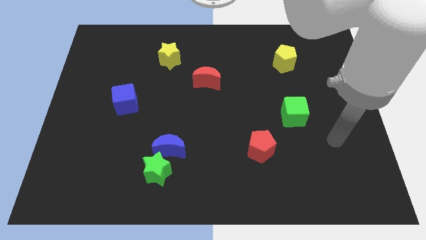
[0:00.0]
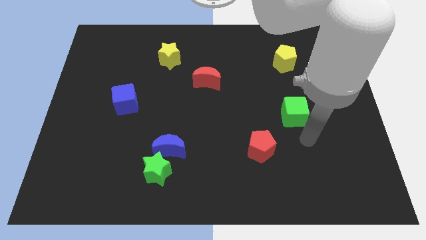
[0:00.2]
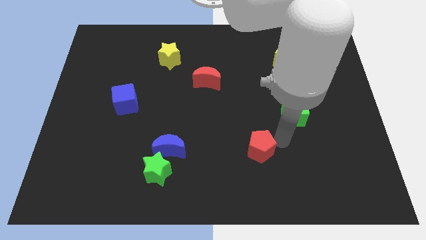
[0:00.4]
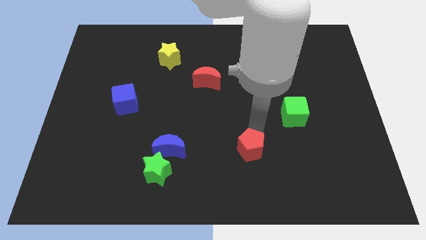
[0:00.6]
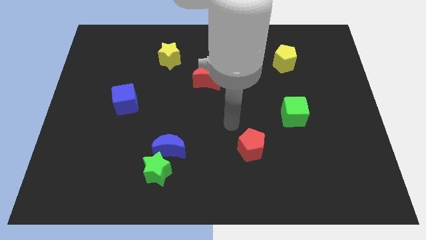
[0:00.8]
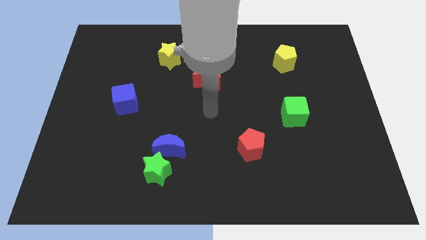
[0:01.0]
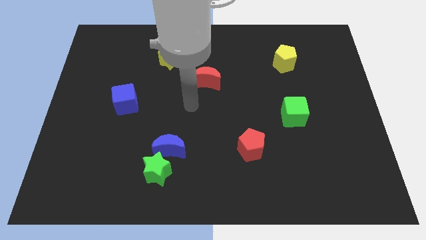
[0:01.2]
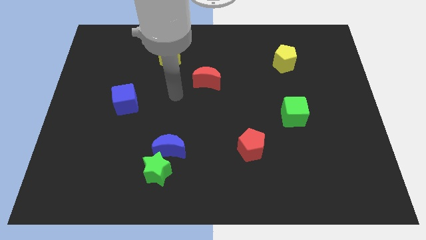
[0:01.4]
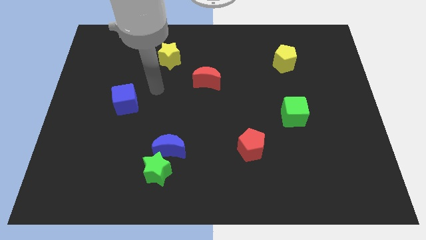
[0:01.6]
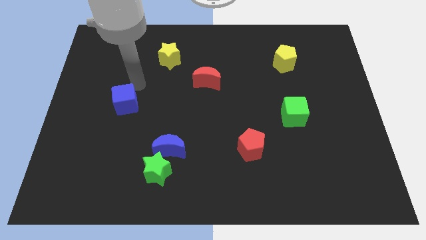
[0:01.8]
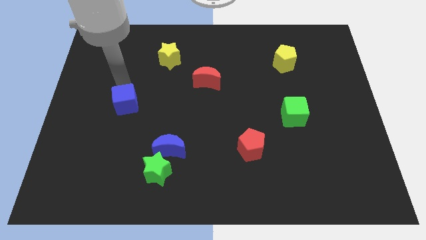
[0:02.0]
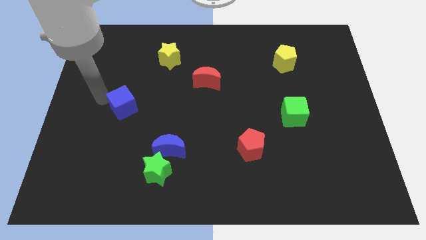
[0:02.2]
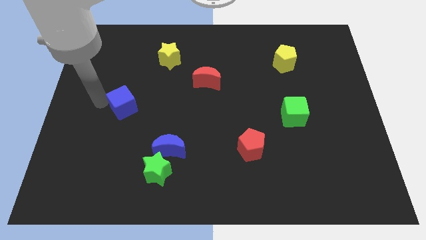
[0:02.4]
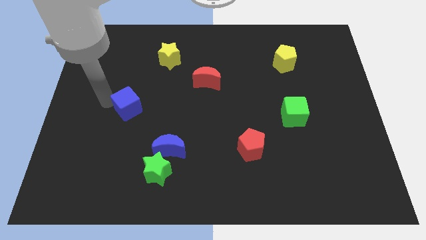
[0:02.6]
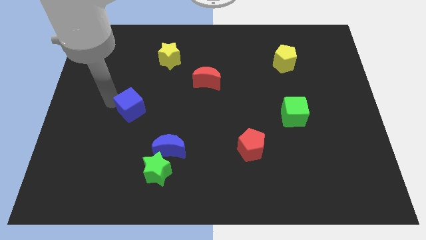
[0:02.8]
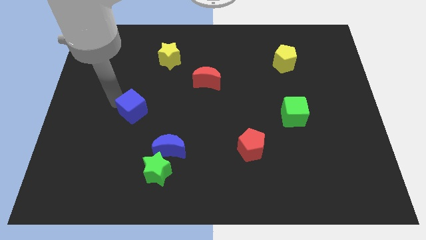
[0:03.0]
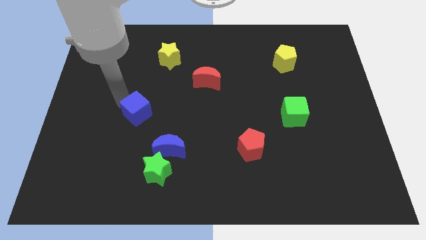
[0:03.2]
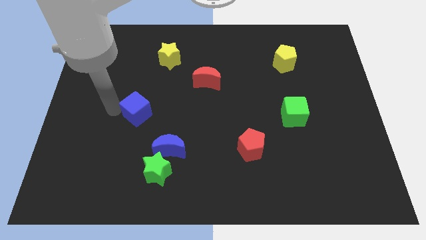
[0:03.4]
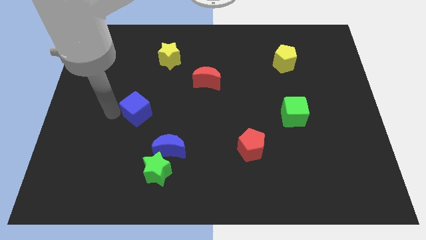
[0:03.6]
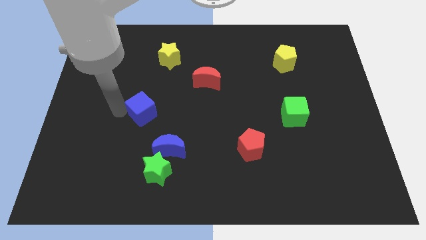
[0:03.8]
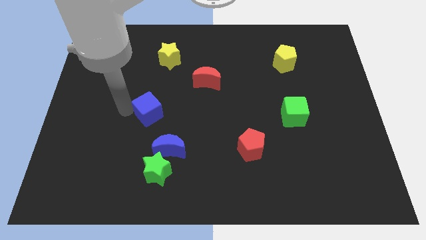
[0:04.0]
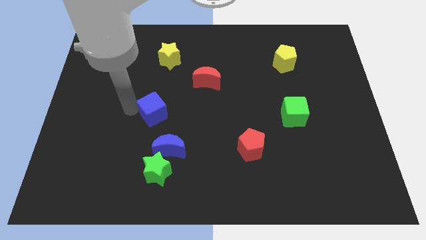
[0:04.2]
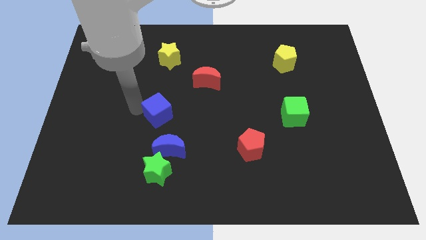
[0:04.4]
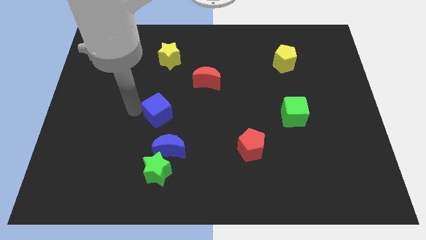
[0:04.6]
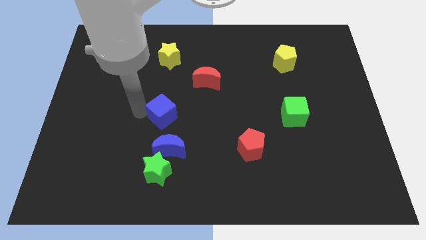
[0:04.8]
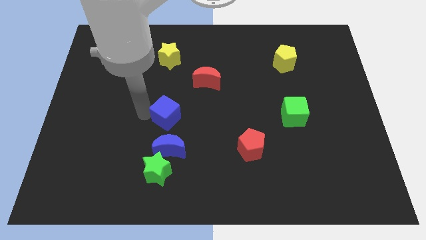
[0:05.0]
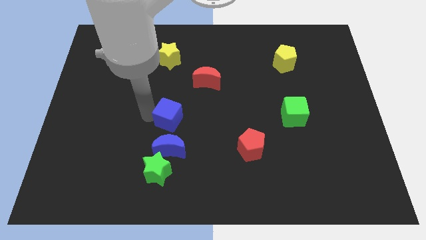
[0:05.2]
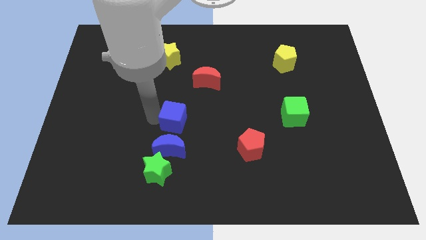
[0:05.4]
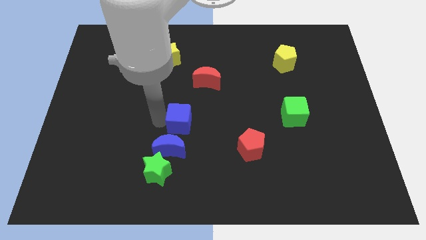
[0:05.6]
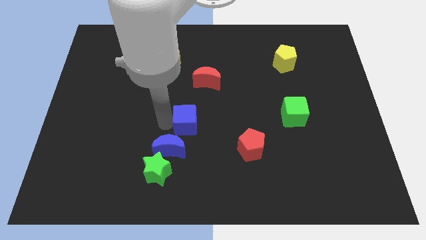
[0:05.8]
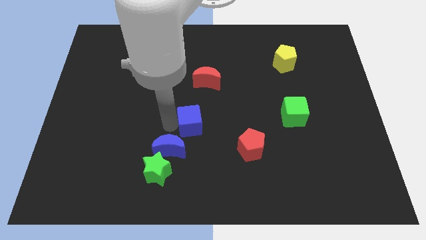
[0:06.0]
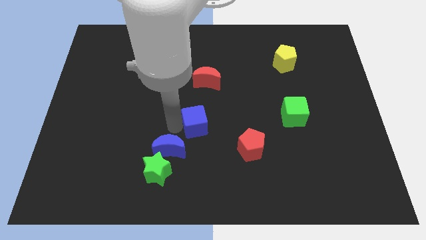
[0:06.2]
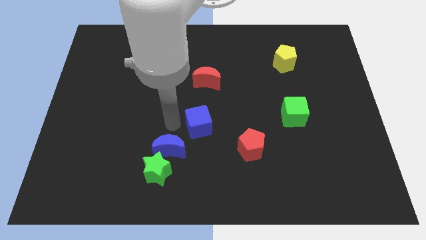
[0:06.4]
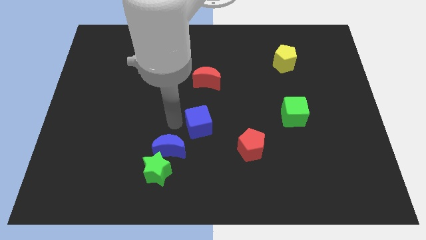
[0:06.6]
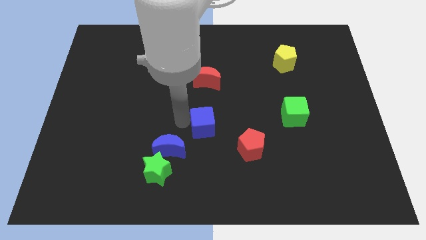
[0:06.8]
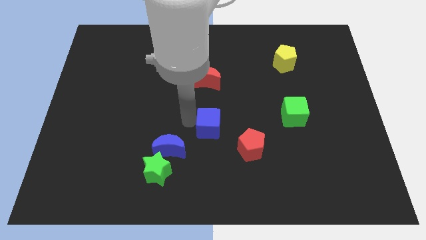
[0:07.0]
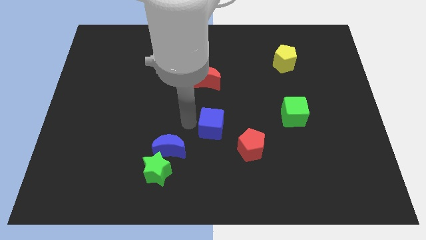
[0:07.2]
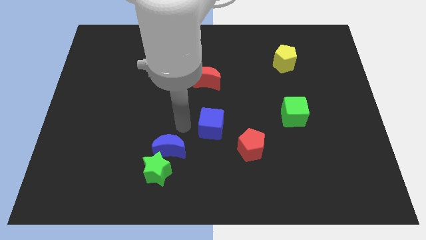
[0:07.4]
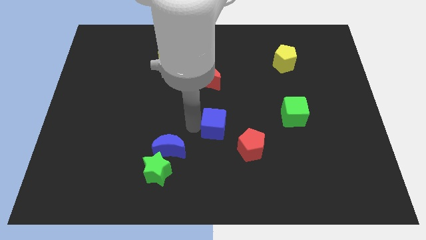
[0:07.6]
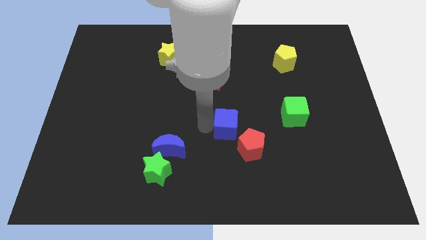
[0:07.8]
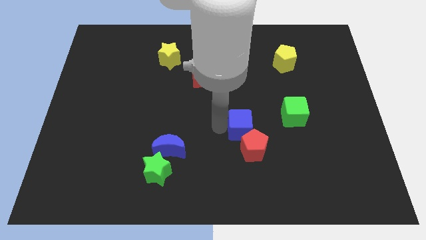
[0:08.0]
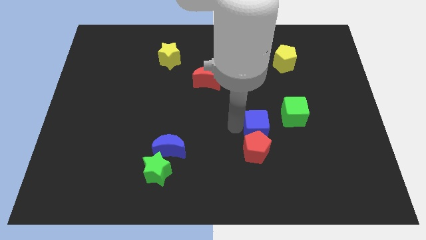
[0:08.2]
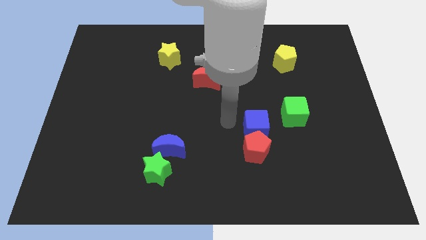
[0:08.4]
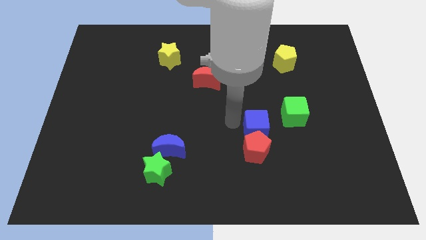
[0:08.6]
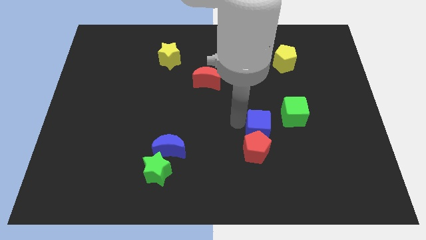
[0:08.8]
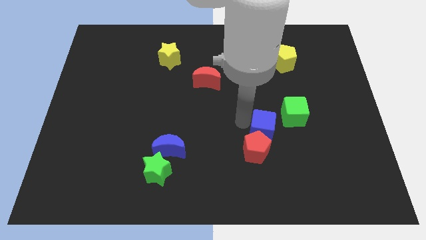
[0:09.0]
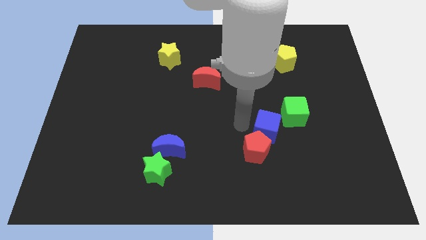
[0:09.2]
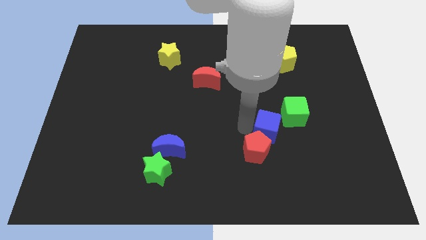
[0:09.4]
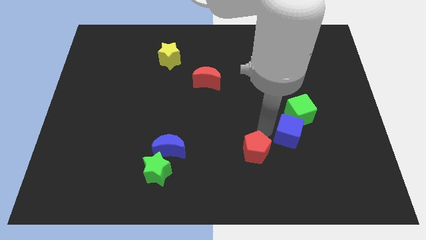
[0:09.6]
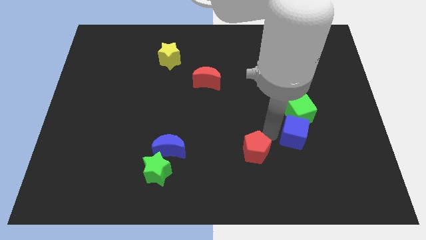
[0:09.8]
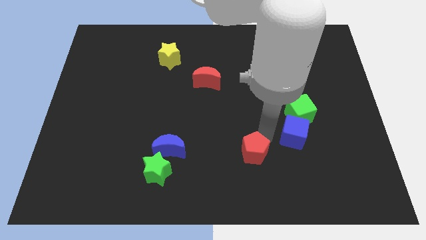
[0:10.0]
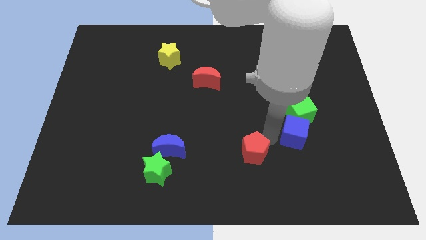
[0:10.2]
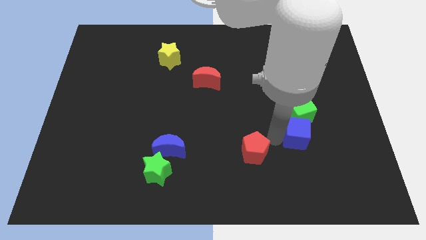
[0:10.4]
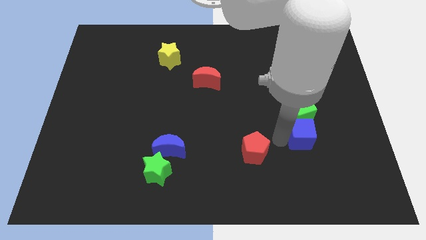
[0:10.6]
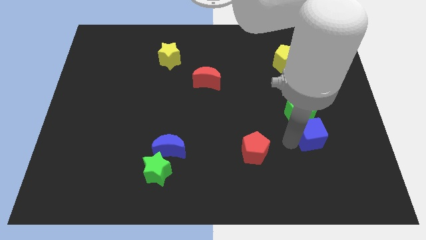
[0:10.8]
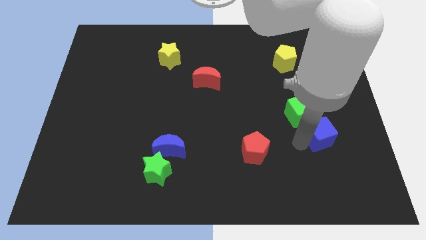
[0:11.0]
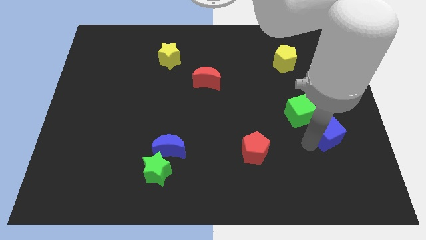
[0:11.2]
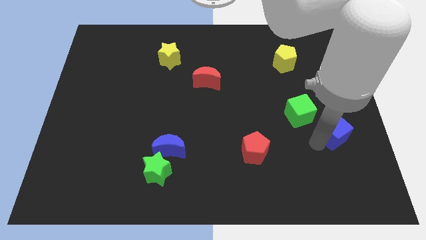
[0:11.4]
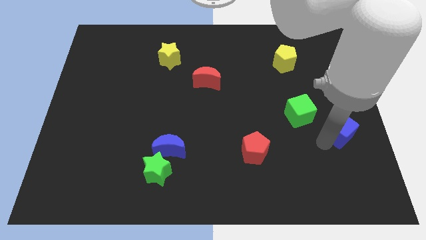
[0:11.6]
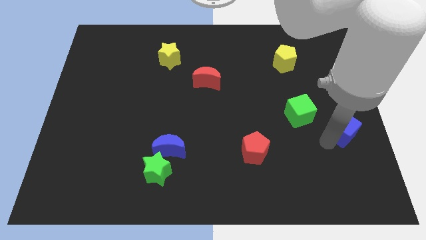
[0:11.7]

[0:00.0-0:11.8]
move the blue cube to the right of the green cube

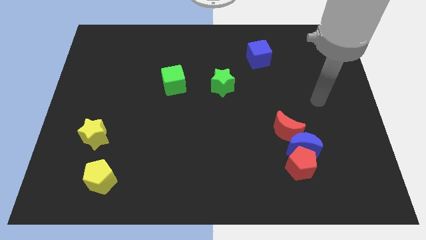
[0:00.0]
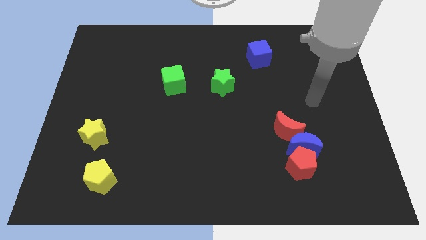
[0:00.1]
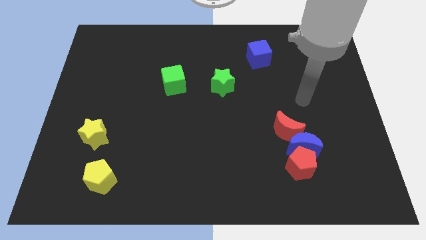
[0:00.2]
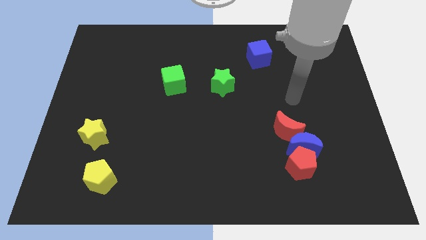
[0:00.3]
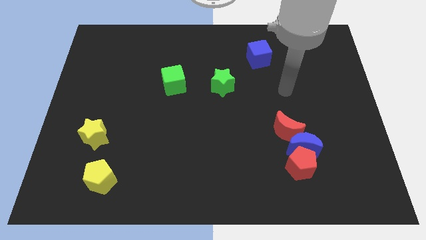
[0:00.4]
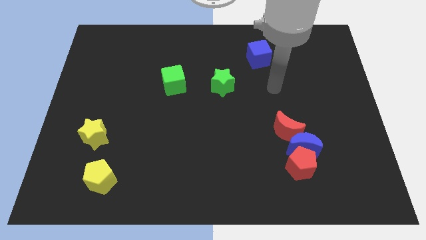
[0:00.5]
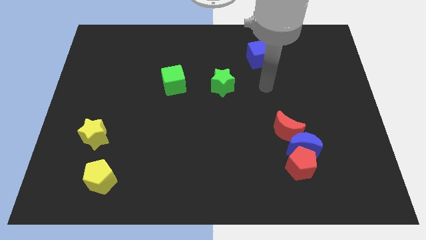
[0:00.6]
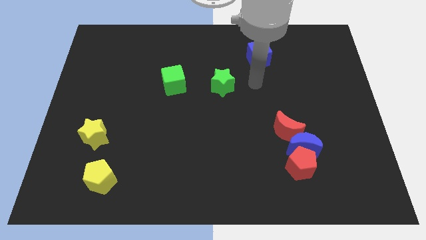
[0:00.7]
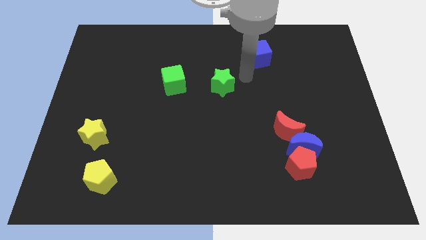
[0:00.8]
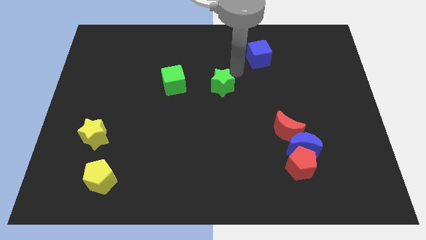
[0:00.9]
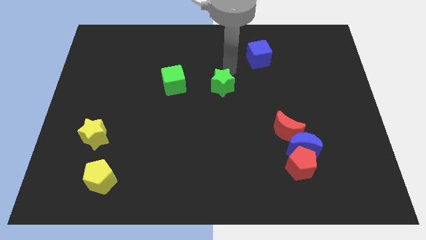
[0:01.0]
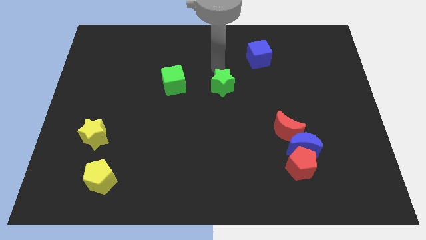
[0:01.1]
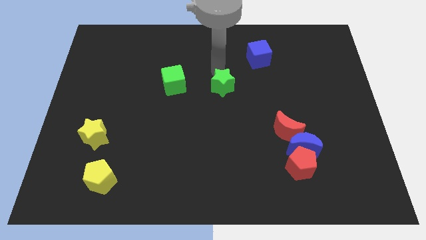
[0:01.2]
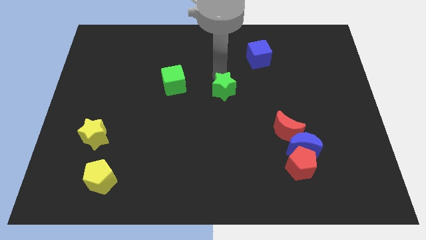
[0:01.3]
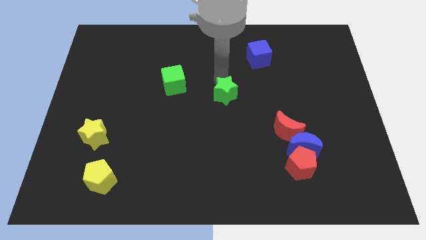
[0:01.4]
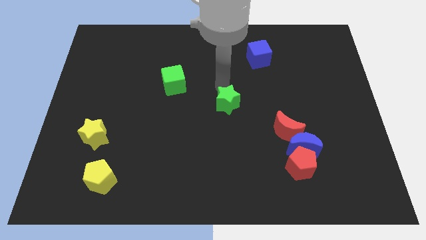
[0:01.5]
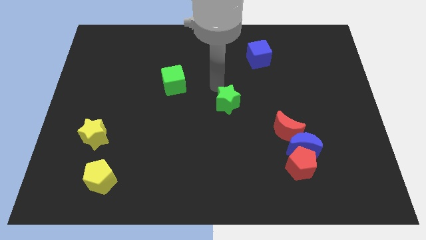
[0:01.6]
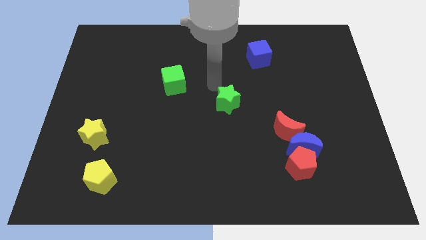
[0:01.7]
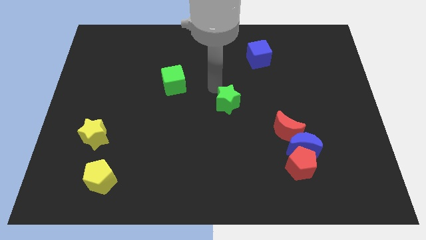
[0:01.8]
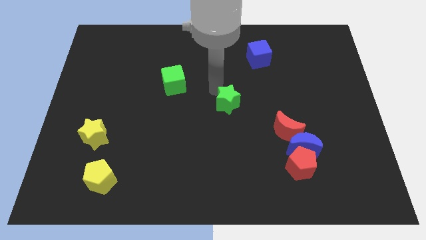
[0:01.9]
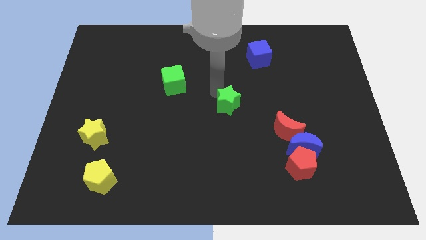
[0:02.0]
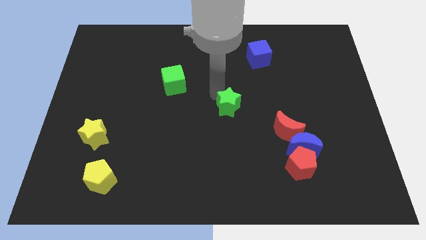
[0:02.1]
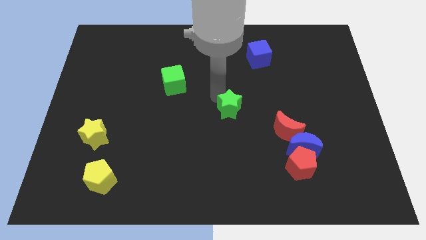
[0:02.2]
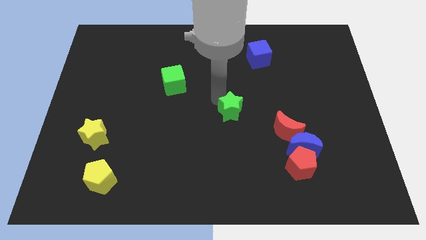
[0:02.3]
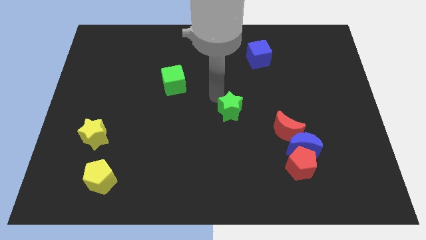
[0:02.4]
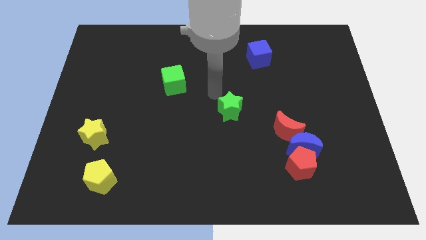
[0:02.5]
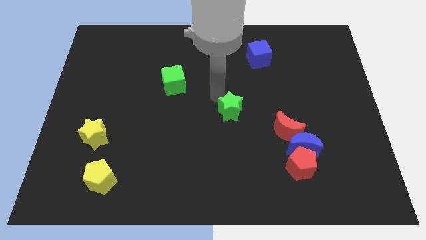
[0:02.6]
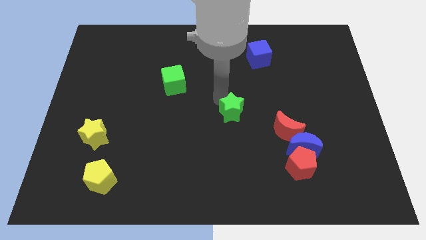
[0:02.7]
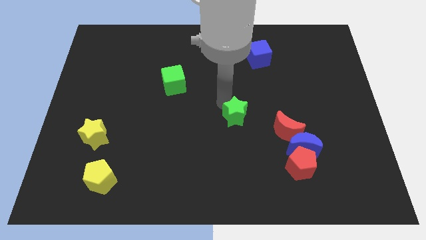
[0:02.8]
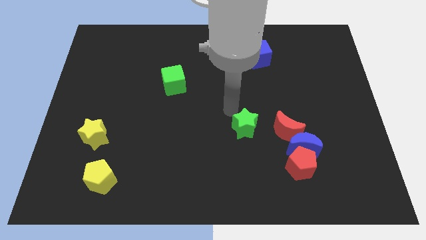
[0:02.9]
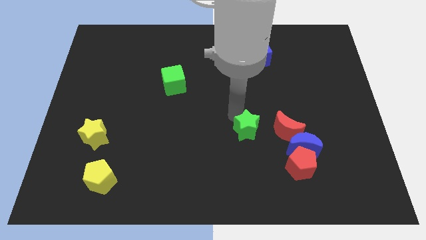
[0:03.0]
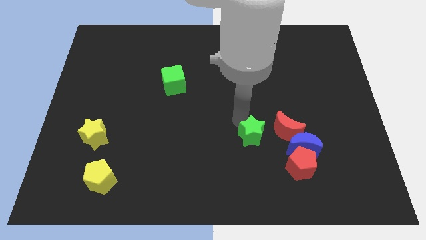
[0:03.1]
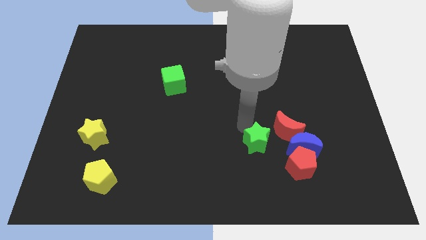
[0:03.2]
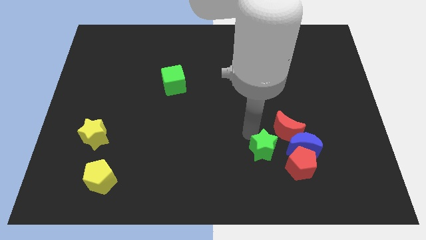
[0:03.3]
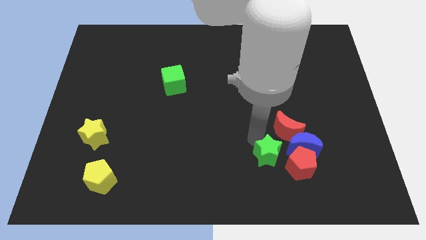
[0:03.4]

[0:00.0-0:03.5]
put the green star to the bottom side of the red moon
